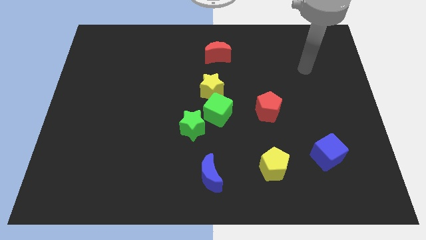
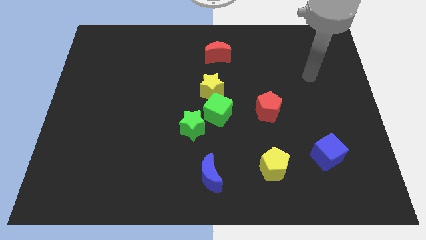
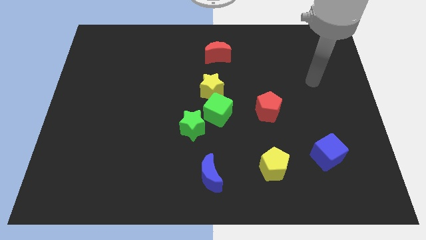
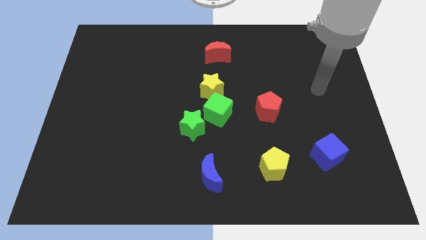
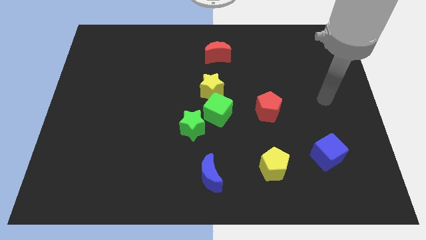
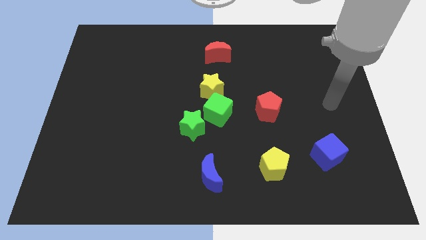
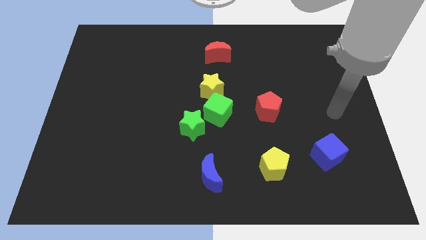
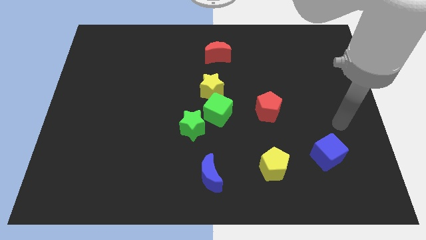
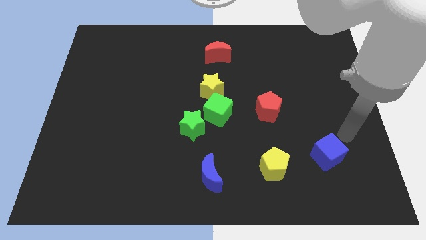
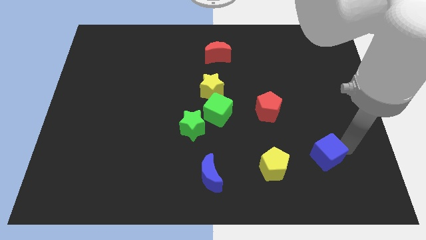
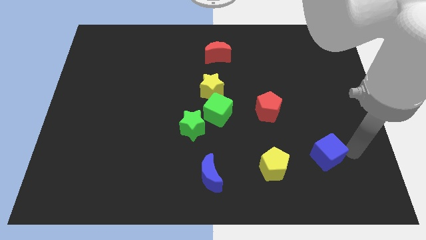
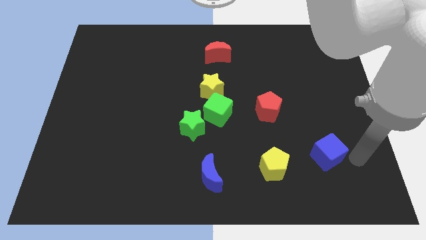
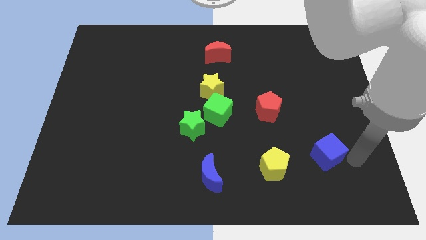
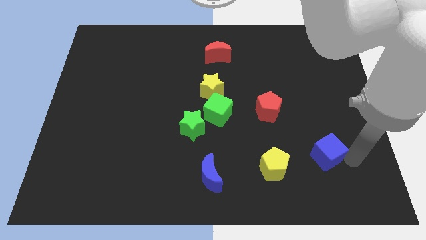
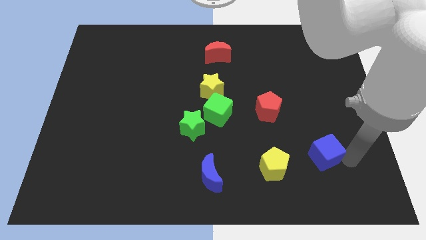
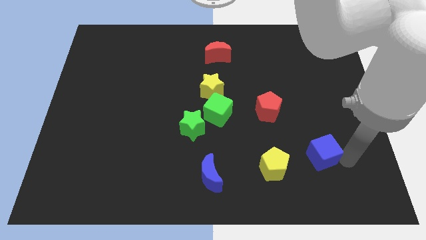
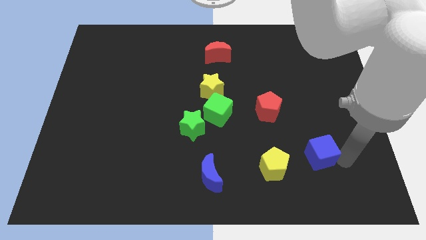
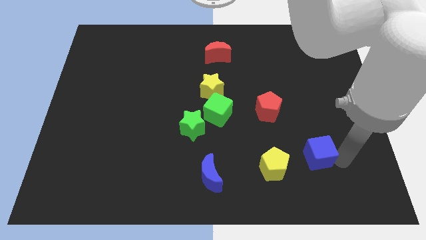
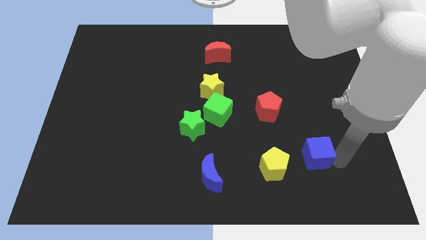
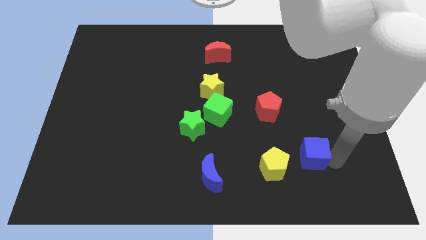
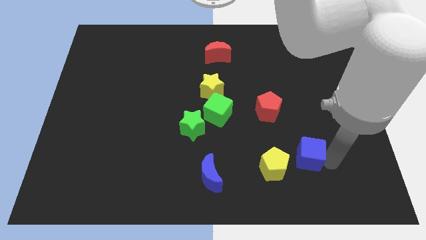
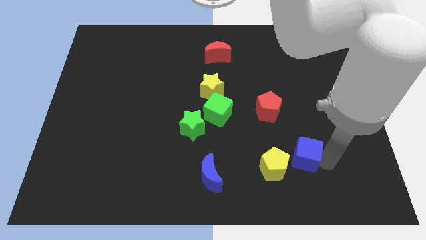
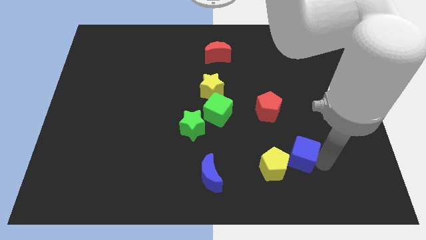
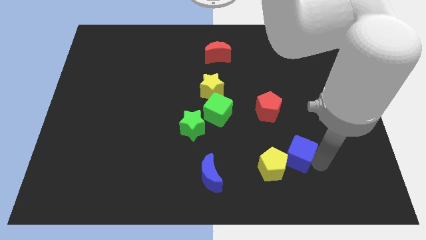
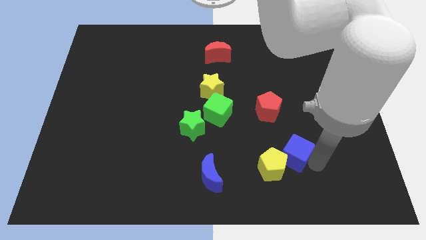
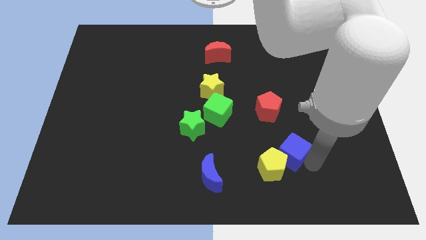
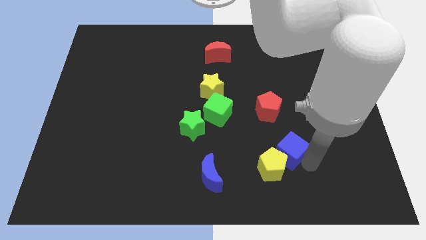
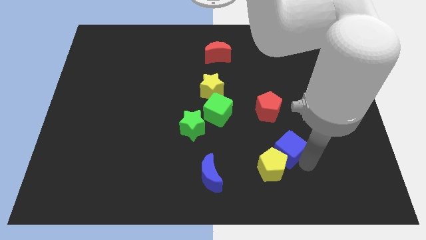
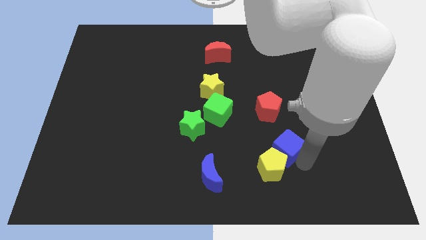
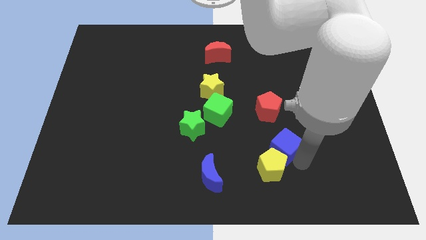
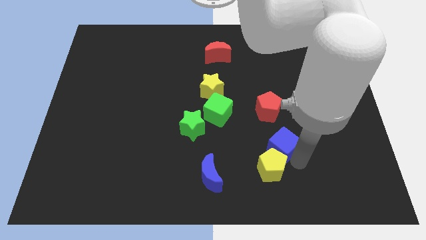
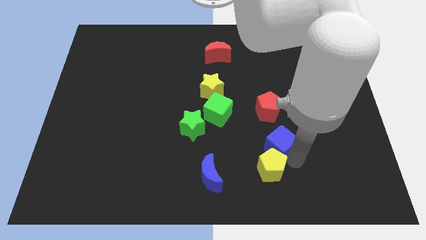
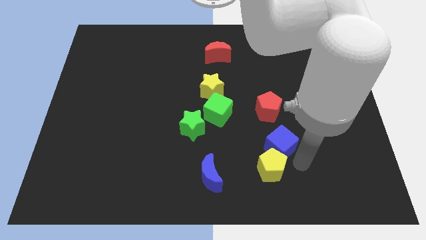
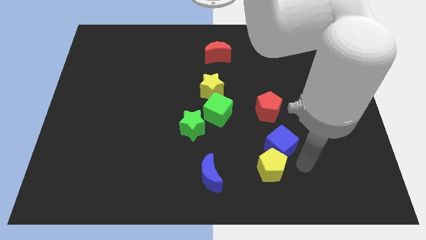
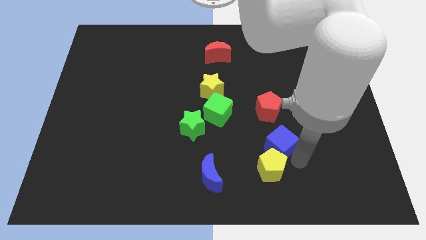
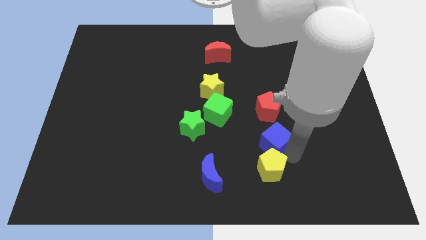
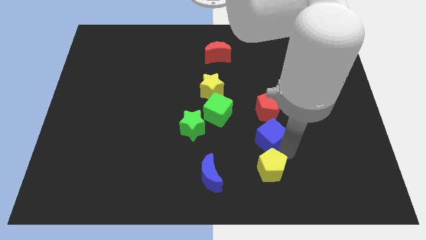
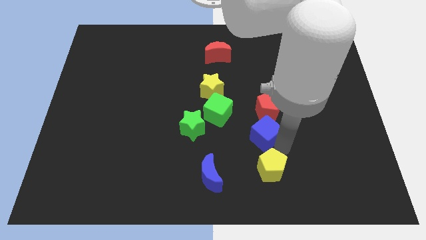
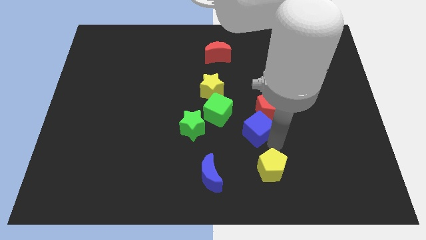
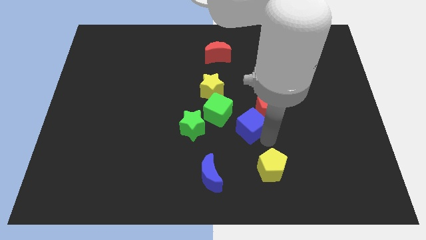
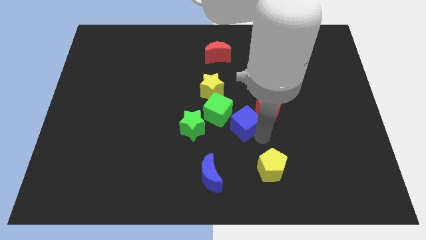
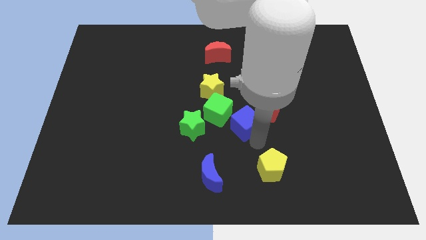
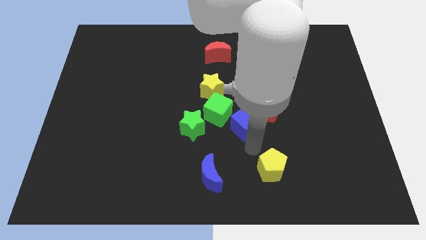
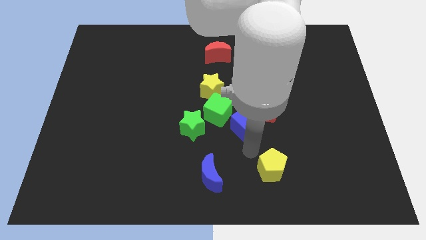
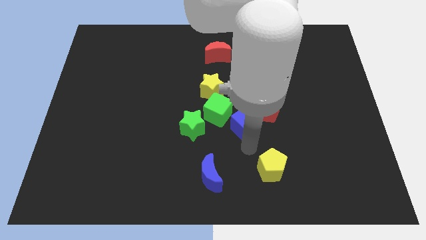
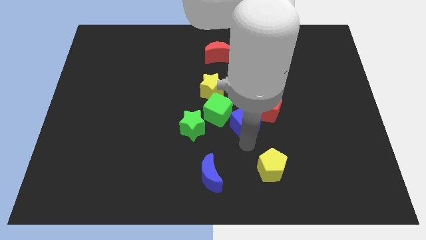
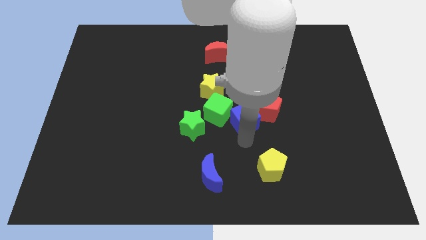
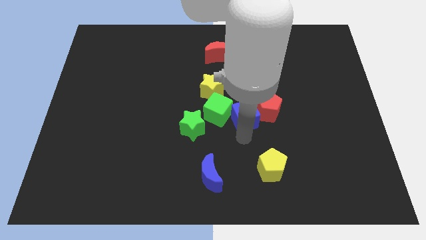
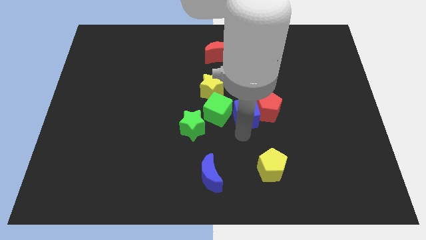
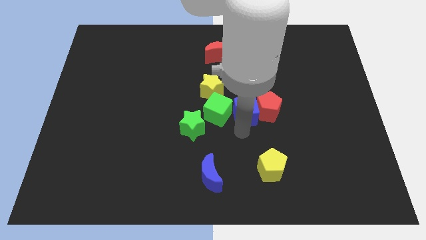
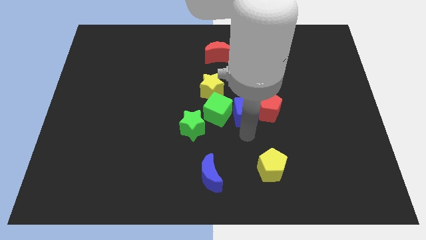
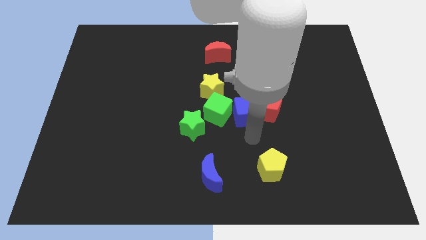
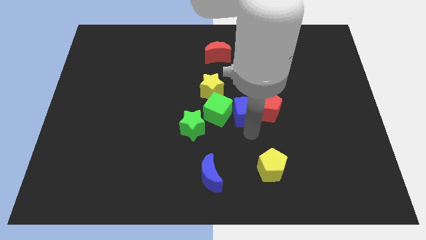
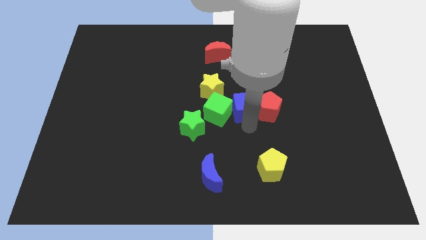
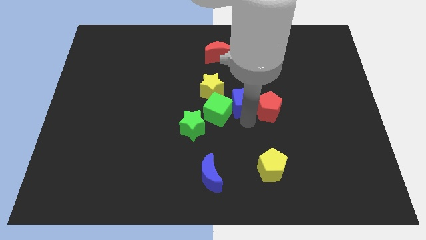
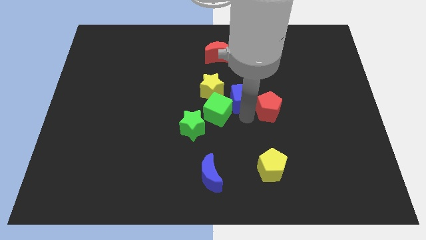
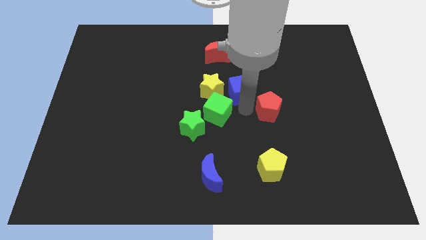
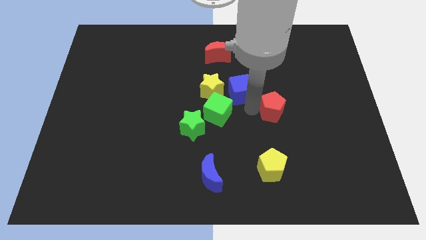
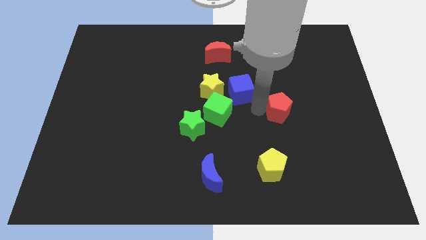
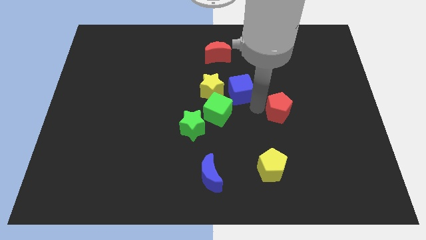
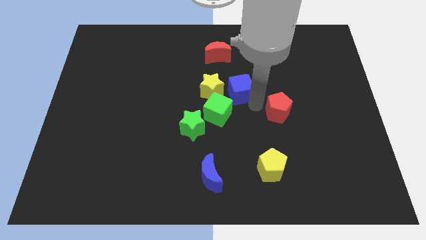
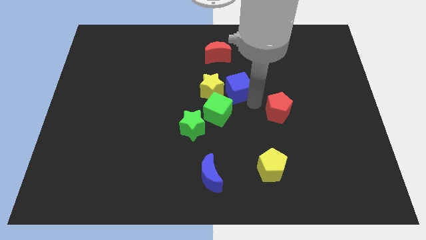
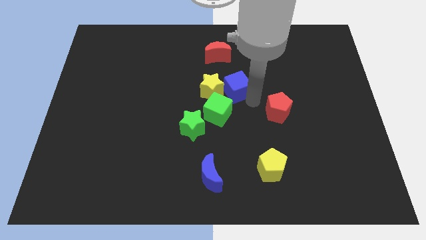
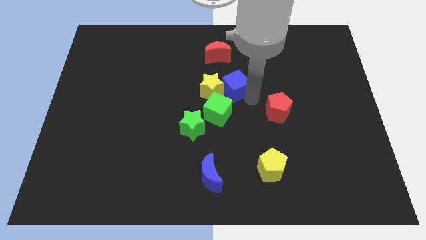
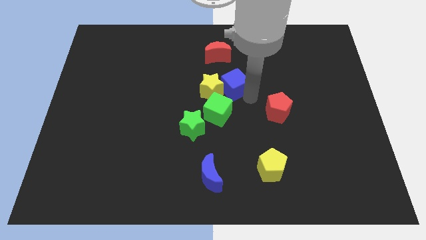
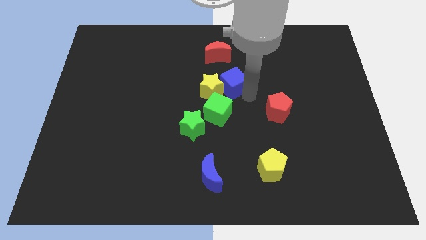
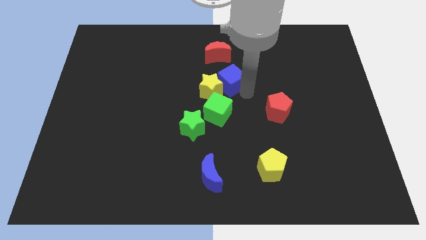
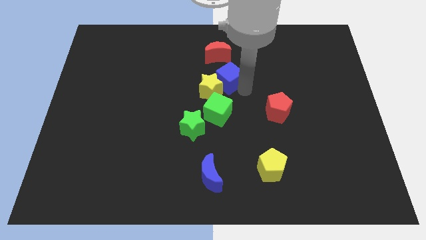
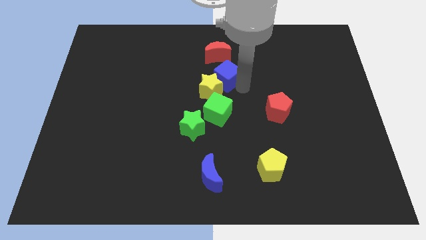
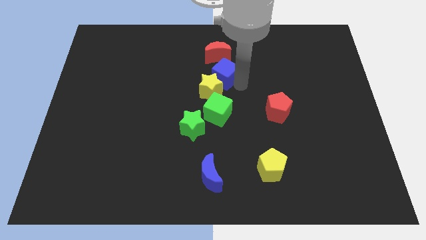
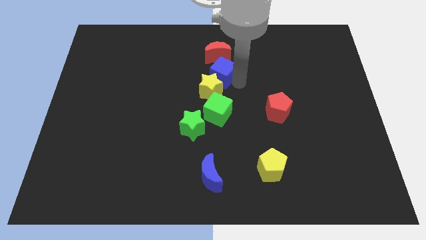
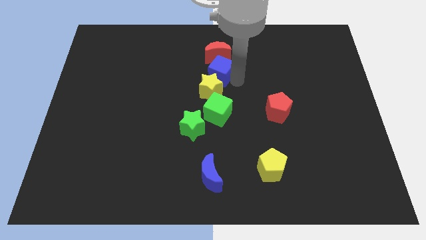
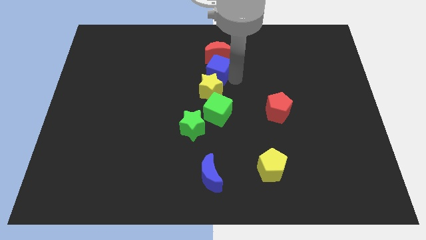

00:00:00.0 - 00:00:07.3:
move the blue cube to the bottom left side of the red moon
